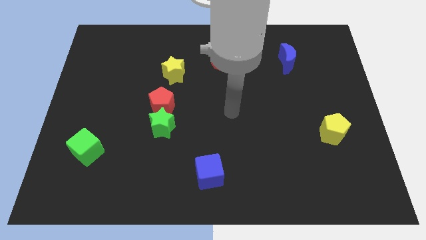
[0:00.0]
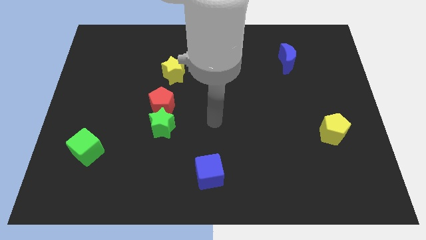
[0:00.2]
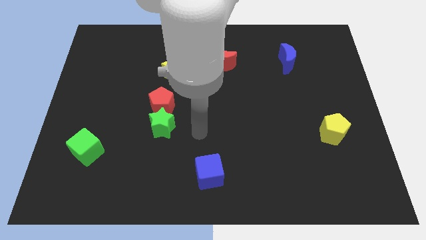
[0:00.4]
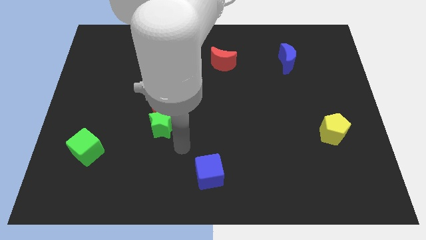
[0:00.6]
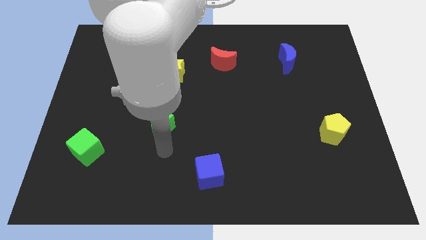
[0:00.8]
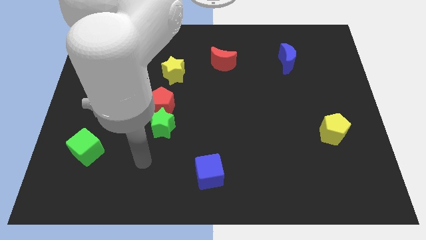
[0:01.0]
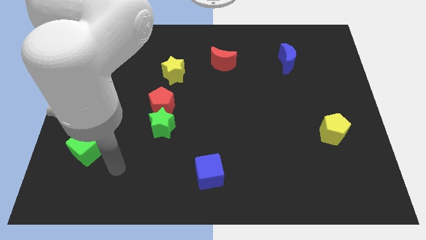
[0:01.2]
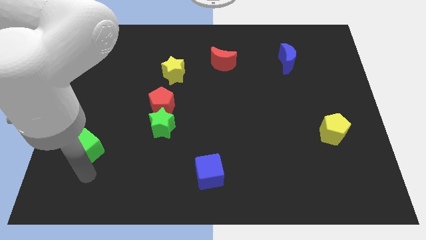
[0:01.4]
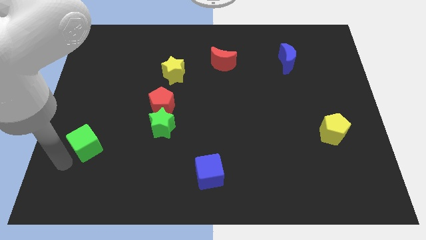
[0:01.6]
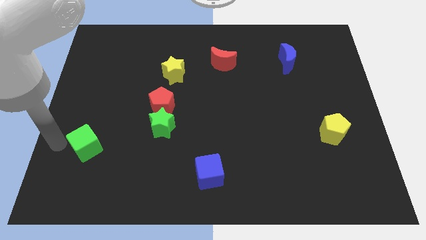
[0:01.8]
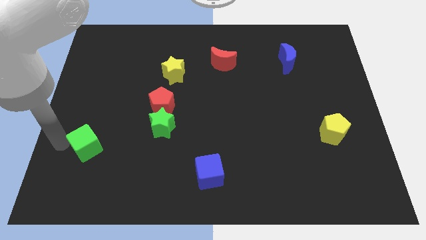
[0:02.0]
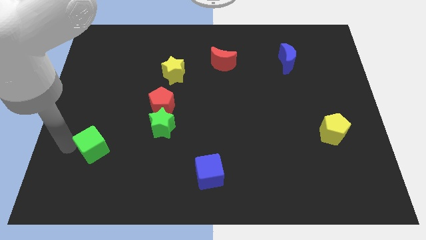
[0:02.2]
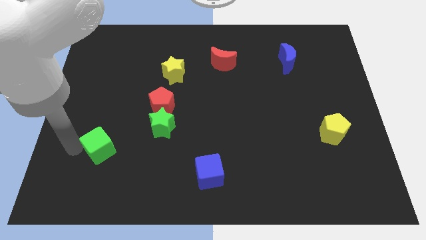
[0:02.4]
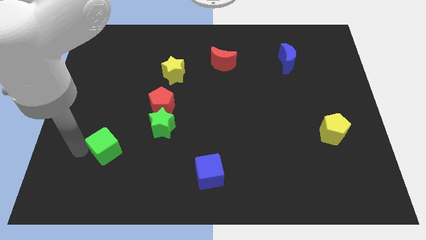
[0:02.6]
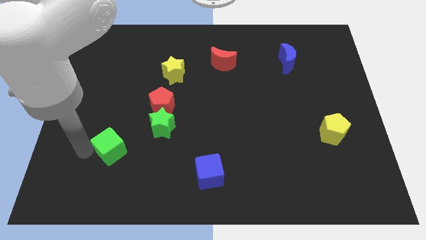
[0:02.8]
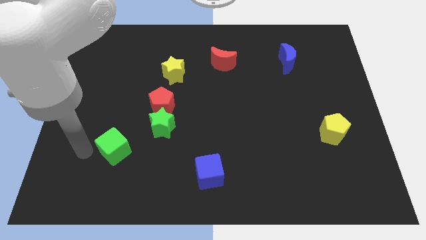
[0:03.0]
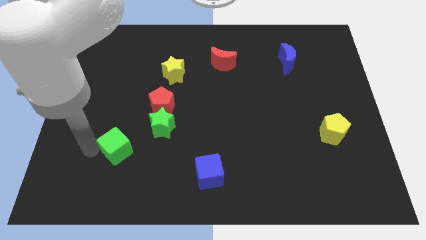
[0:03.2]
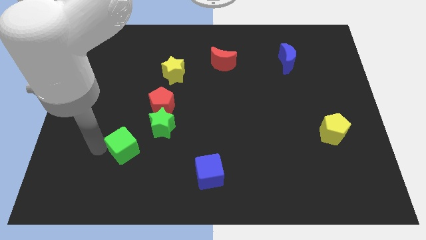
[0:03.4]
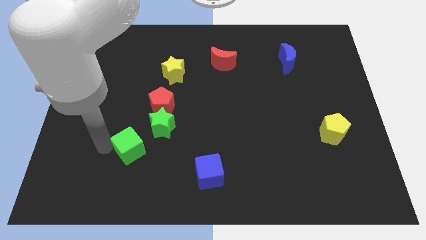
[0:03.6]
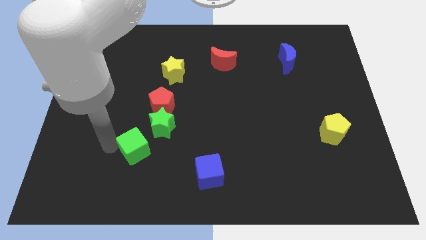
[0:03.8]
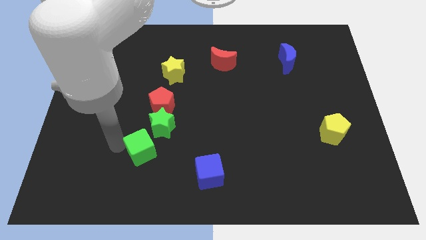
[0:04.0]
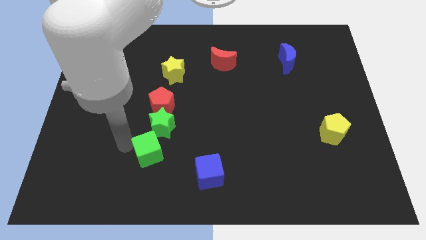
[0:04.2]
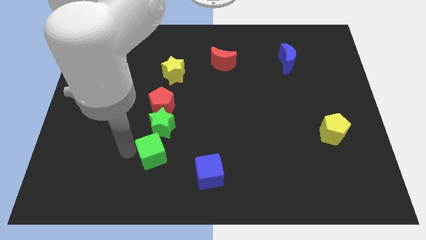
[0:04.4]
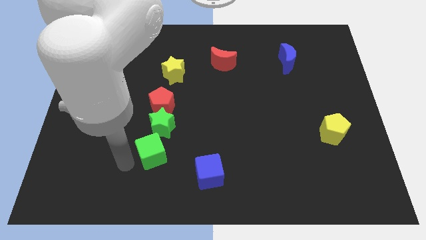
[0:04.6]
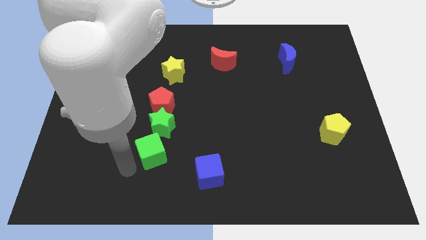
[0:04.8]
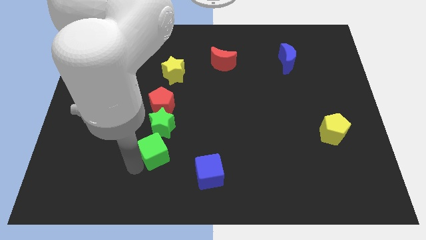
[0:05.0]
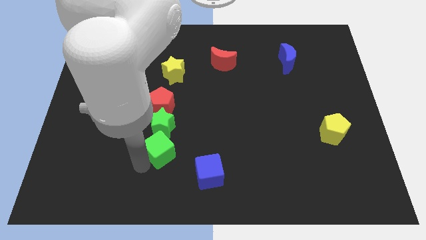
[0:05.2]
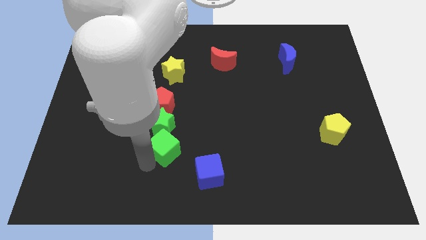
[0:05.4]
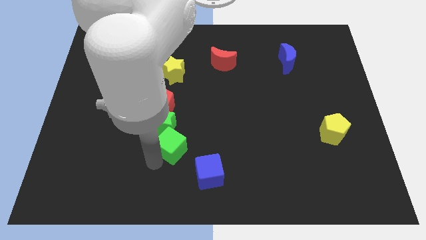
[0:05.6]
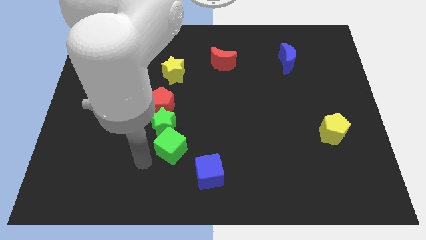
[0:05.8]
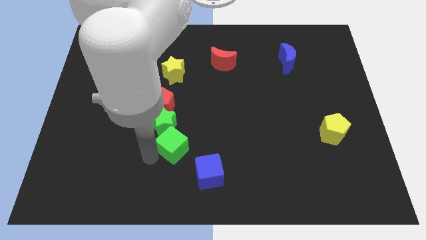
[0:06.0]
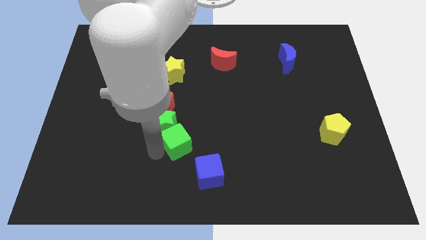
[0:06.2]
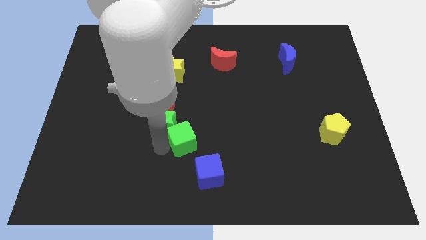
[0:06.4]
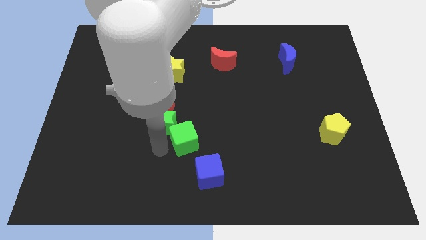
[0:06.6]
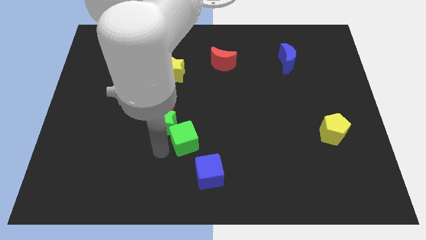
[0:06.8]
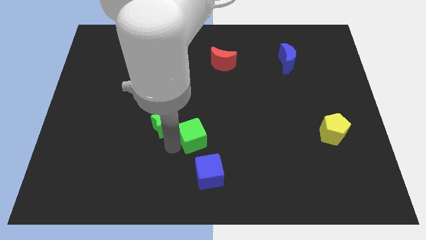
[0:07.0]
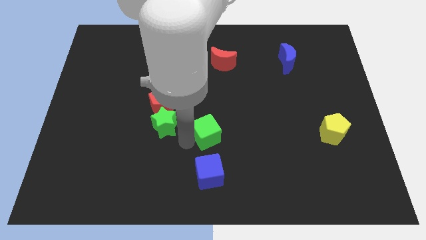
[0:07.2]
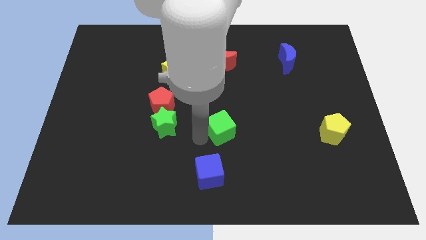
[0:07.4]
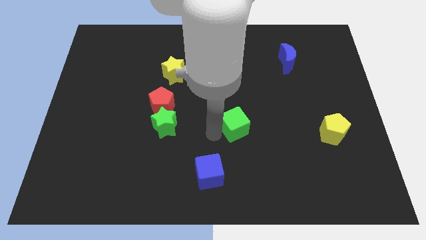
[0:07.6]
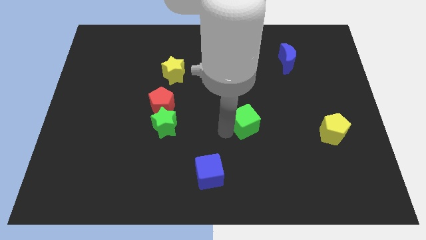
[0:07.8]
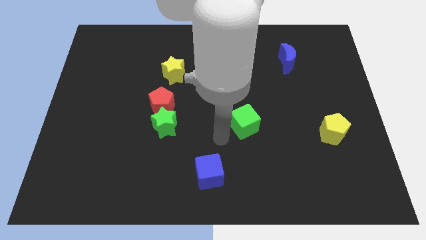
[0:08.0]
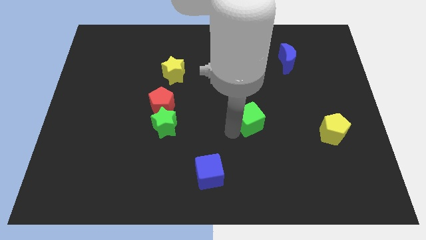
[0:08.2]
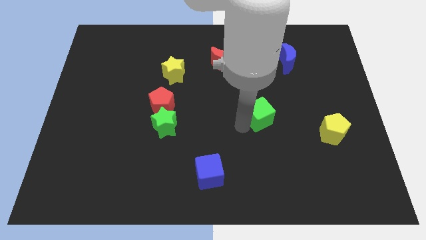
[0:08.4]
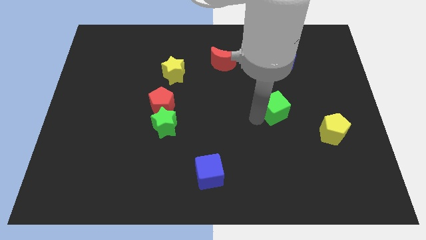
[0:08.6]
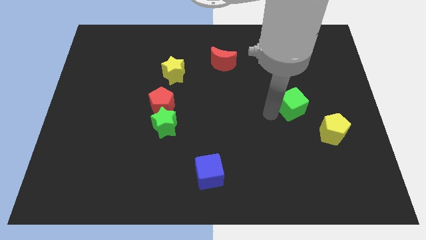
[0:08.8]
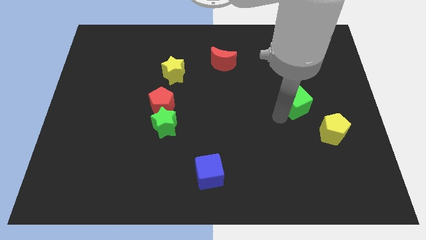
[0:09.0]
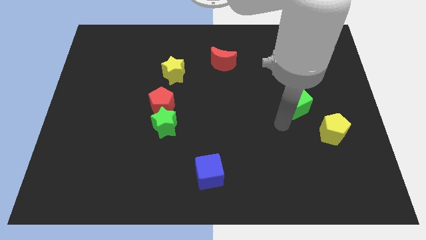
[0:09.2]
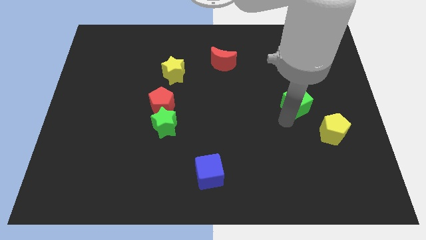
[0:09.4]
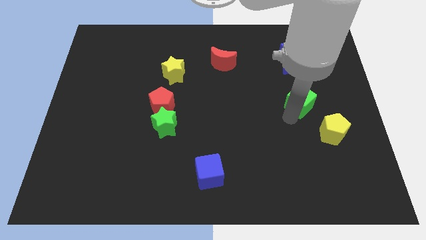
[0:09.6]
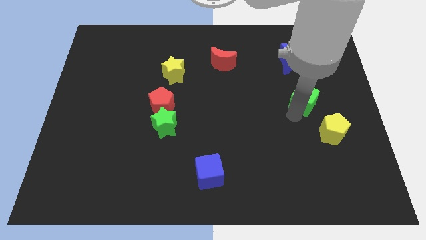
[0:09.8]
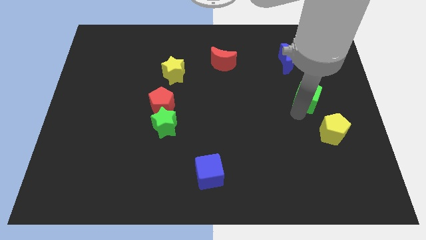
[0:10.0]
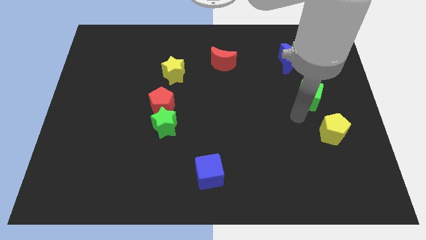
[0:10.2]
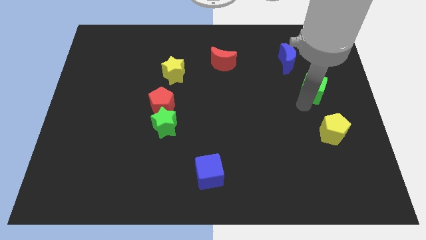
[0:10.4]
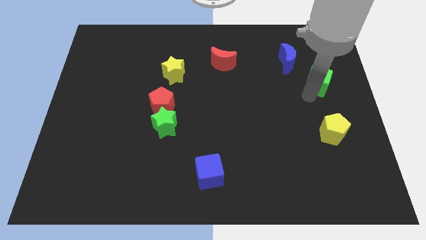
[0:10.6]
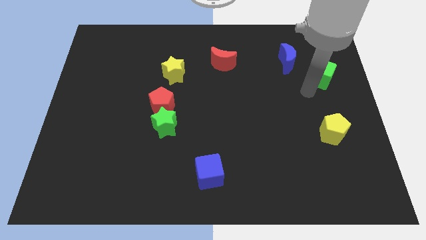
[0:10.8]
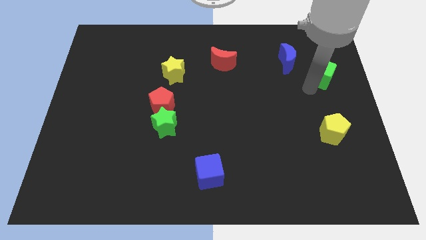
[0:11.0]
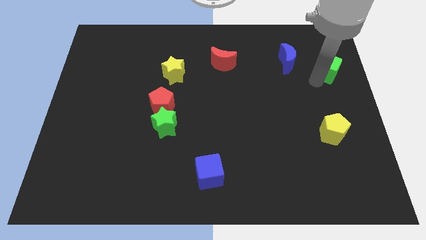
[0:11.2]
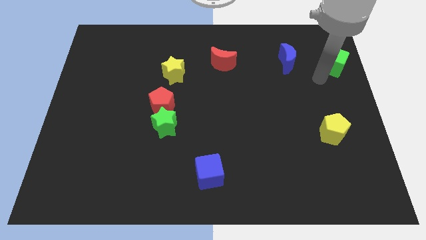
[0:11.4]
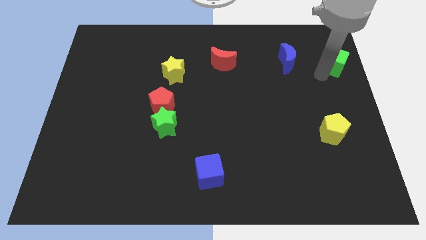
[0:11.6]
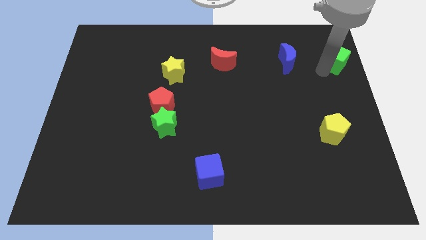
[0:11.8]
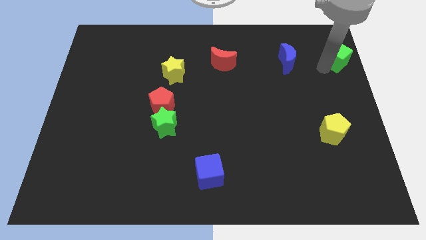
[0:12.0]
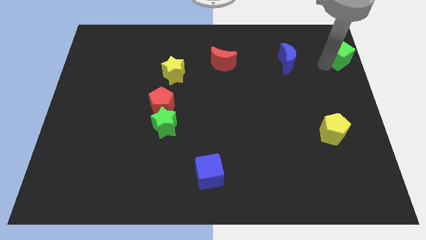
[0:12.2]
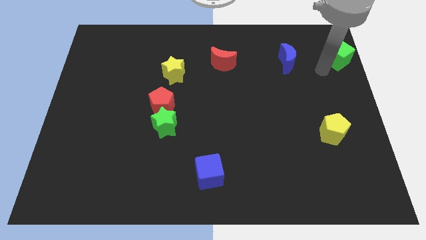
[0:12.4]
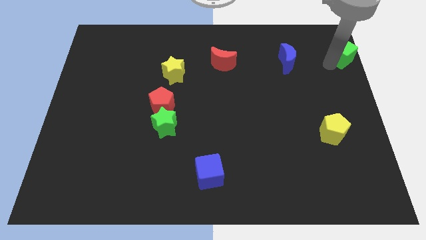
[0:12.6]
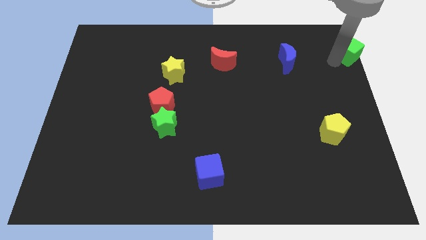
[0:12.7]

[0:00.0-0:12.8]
put the green cube to the top right corner

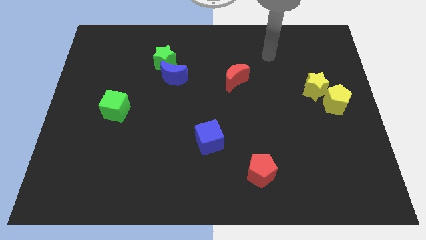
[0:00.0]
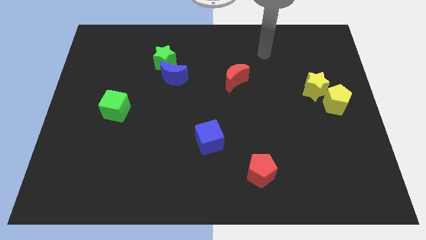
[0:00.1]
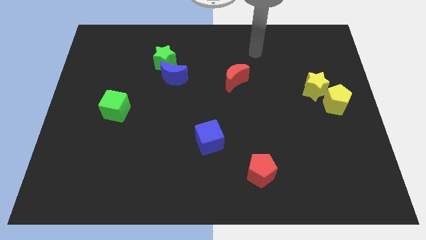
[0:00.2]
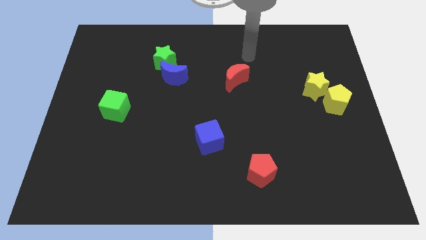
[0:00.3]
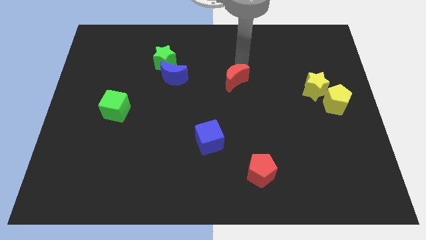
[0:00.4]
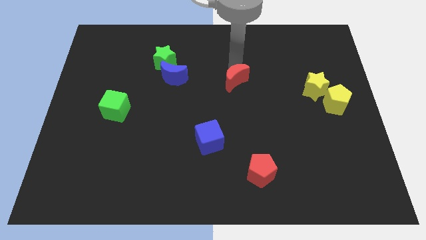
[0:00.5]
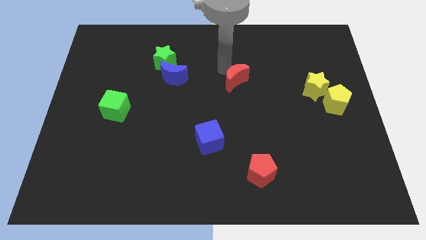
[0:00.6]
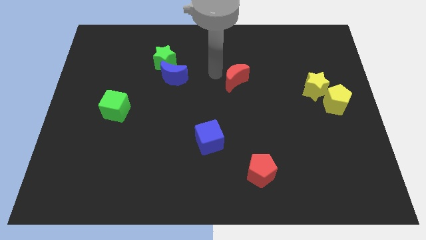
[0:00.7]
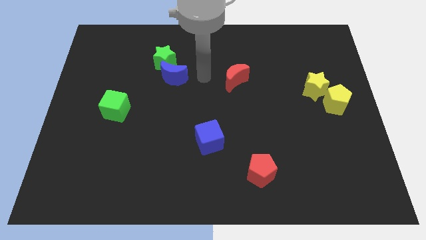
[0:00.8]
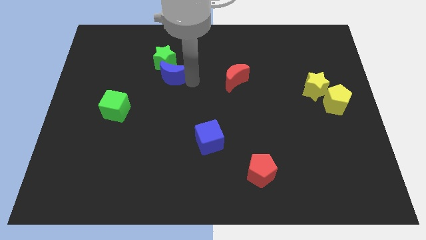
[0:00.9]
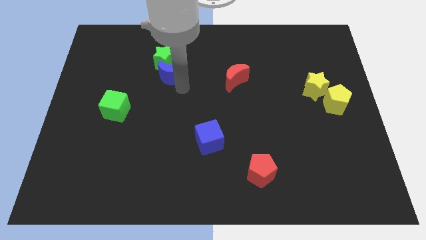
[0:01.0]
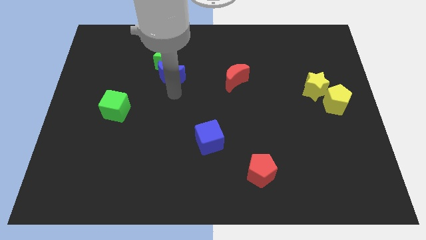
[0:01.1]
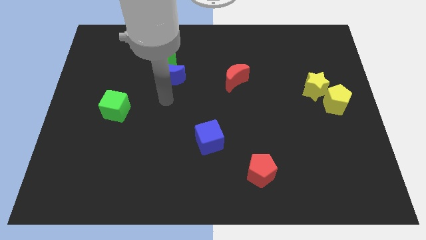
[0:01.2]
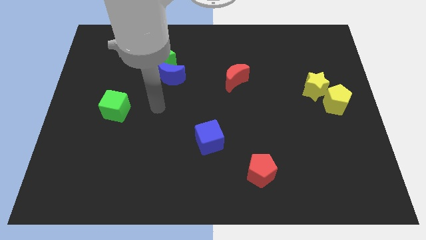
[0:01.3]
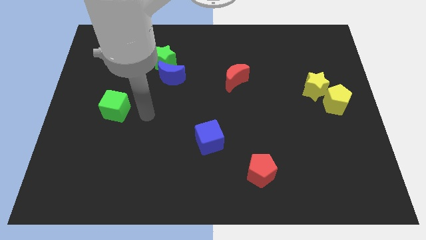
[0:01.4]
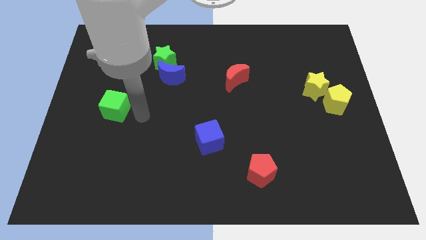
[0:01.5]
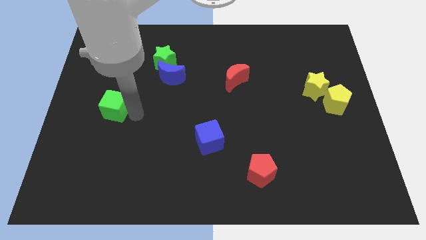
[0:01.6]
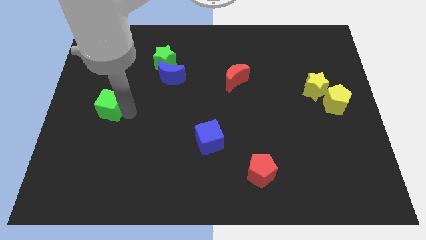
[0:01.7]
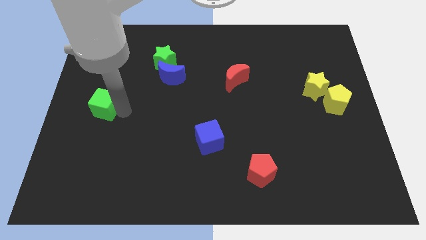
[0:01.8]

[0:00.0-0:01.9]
push the green cube to the center left
